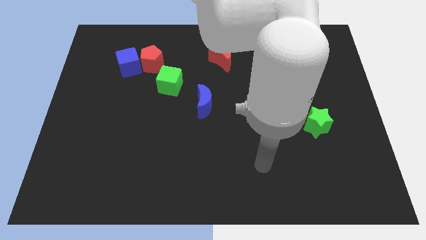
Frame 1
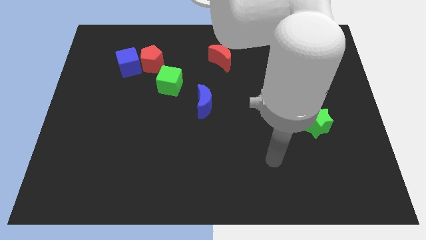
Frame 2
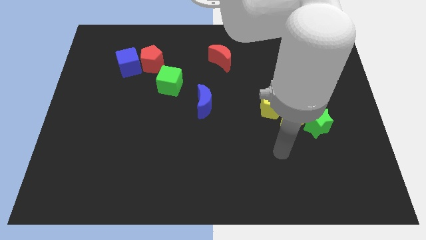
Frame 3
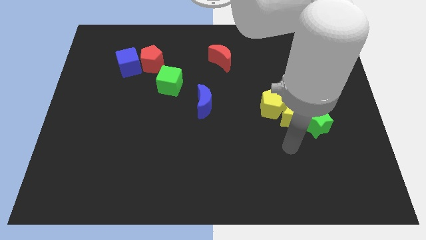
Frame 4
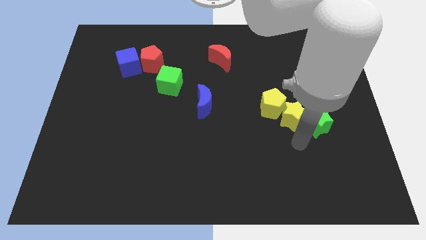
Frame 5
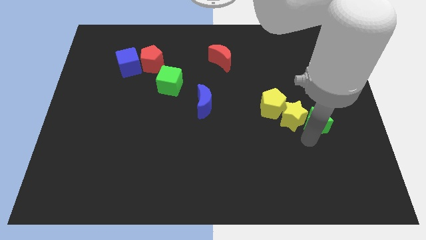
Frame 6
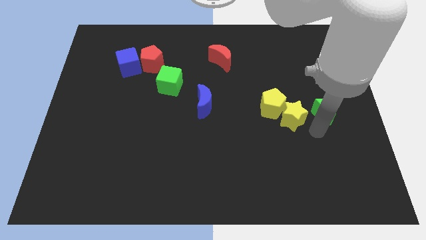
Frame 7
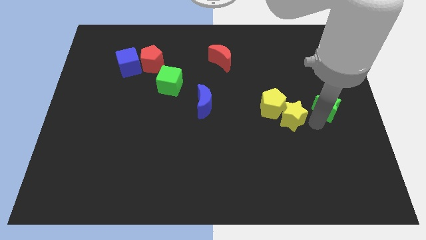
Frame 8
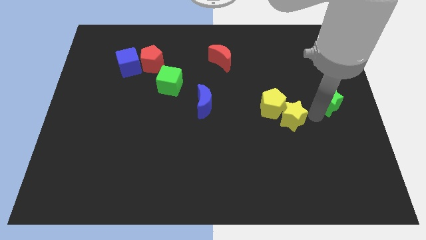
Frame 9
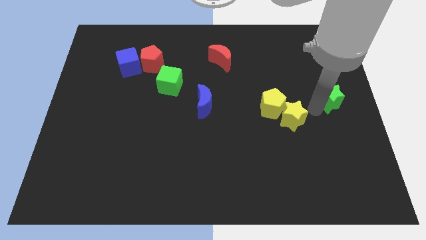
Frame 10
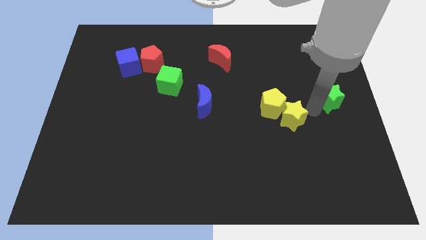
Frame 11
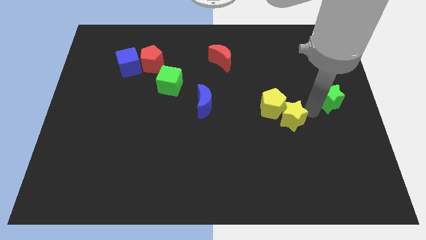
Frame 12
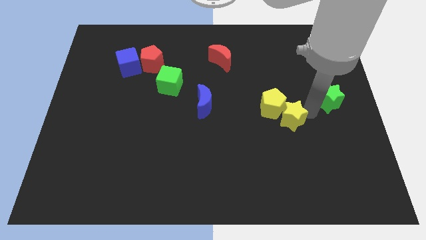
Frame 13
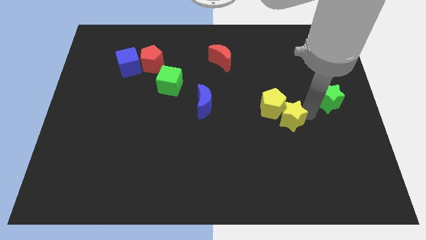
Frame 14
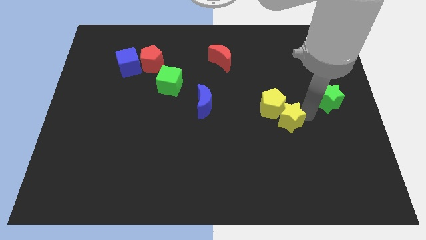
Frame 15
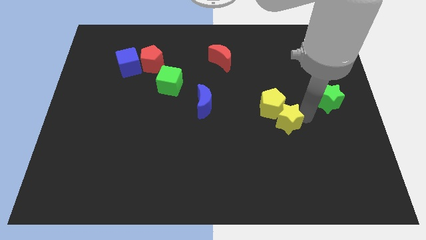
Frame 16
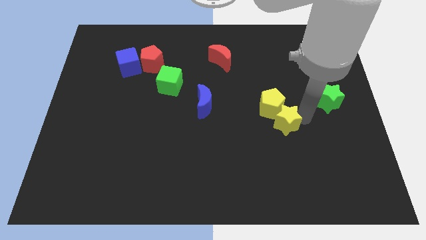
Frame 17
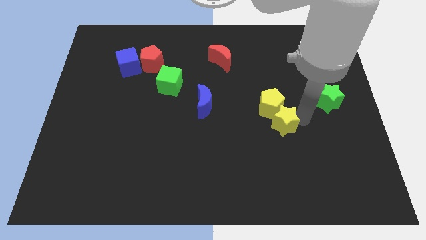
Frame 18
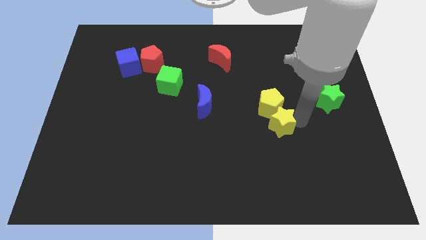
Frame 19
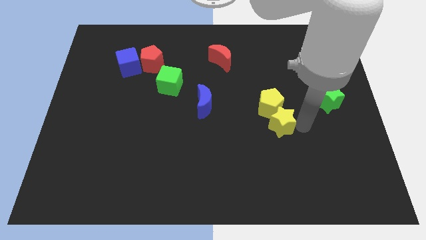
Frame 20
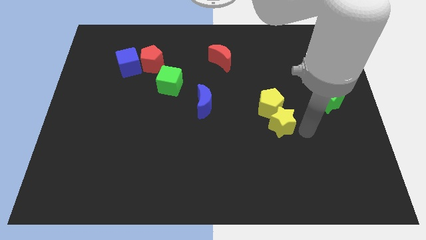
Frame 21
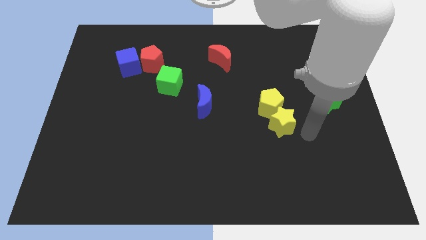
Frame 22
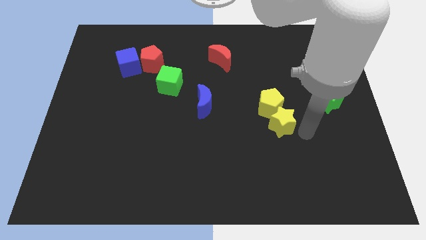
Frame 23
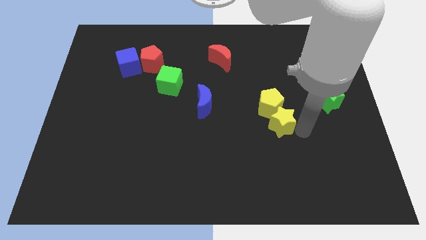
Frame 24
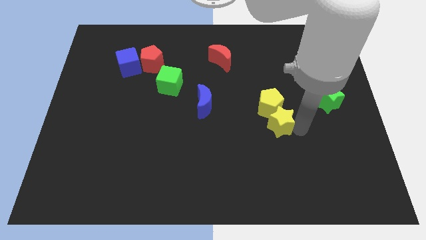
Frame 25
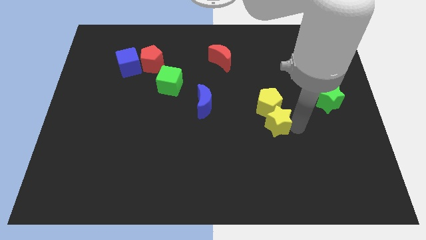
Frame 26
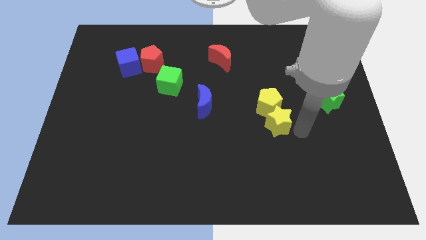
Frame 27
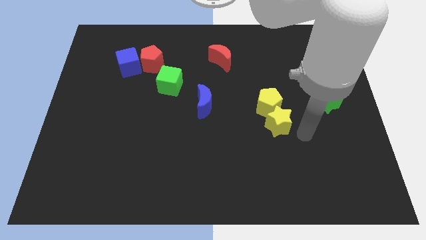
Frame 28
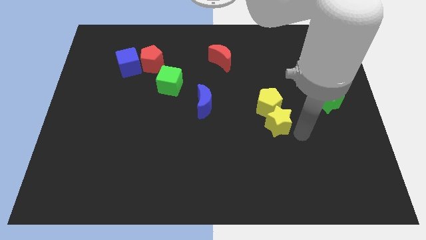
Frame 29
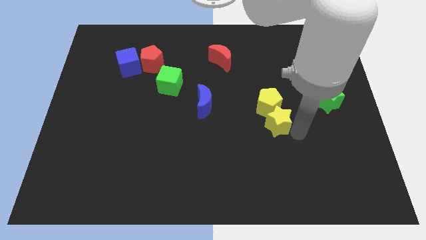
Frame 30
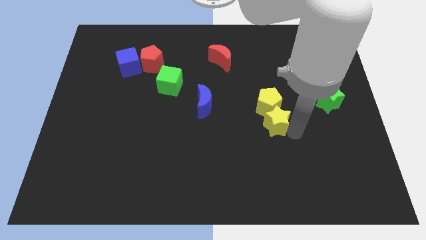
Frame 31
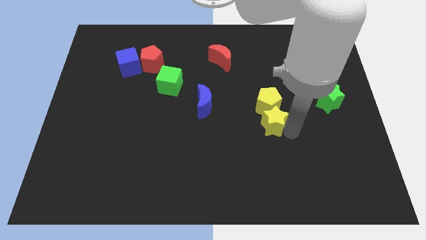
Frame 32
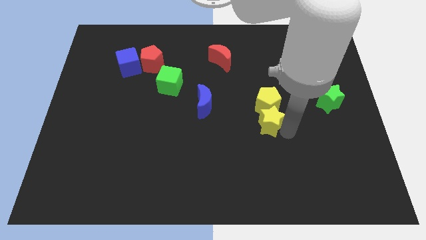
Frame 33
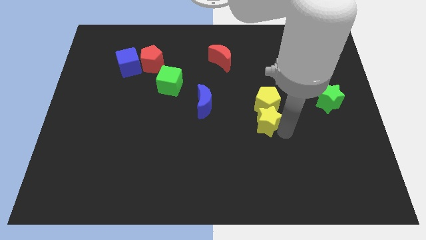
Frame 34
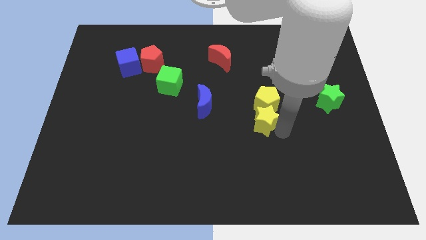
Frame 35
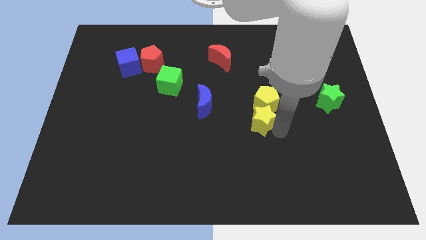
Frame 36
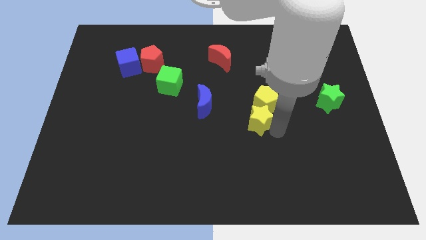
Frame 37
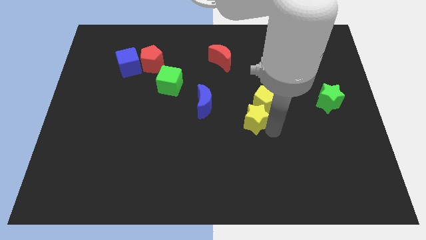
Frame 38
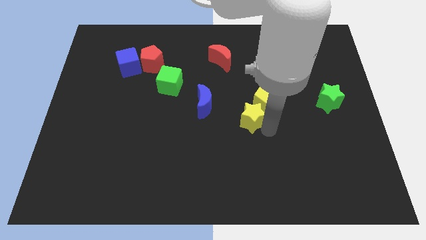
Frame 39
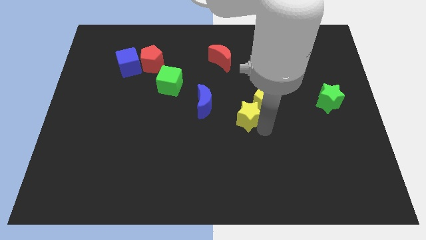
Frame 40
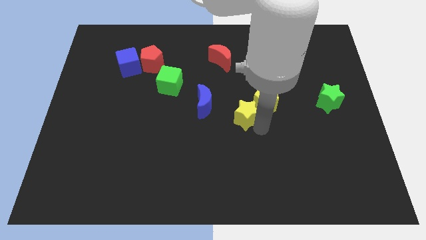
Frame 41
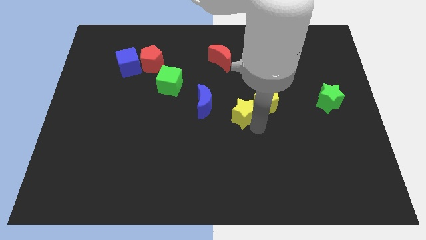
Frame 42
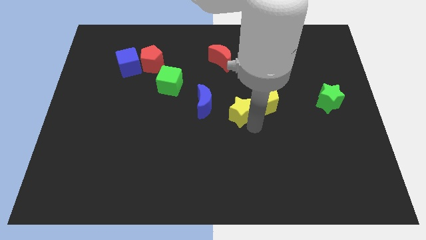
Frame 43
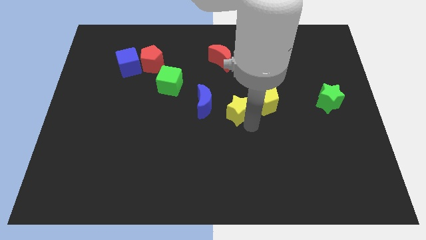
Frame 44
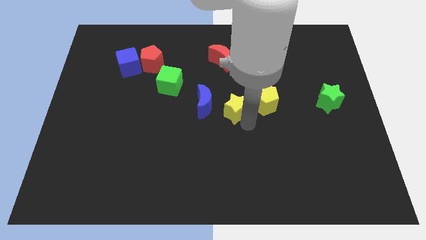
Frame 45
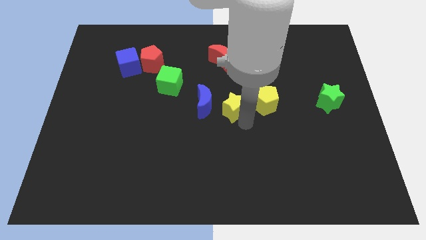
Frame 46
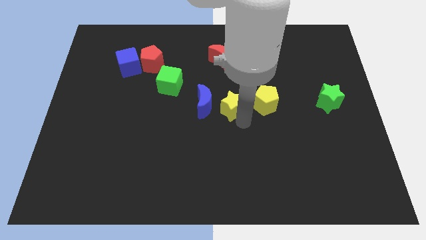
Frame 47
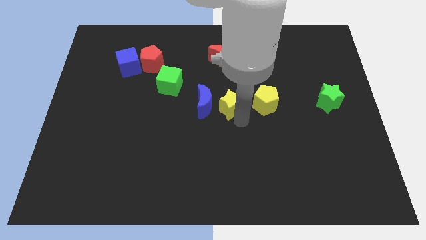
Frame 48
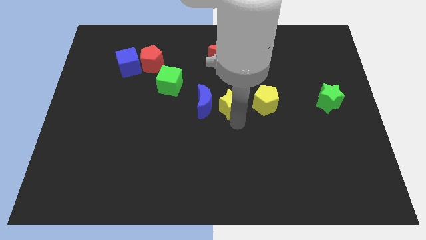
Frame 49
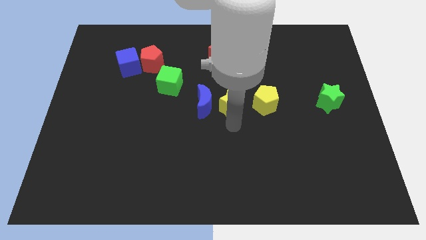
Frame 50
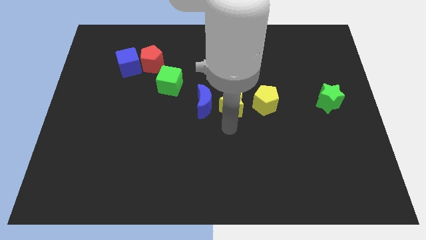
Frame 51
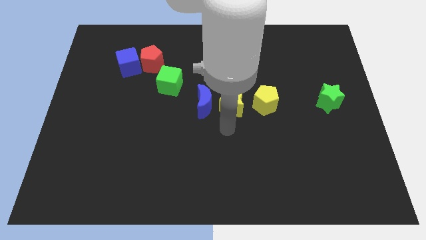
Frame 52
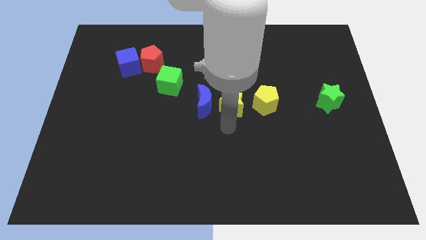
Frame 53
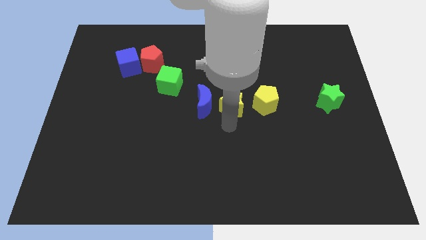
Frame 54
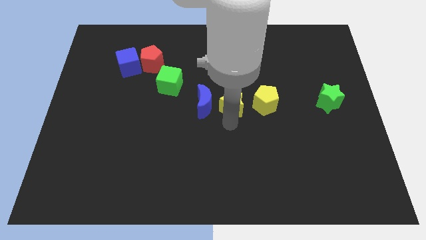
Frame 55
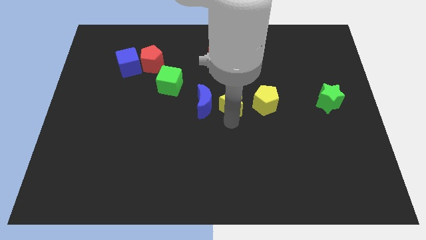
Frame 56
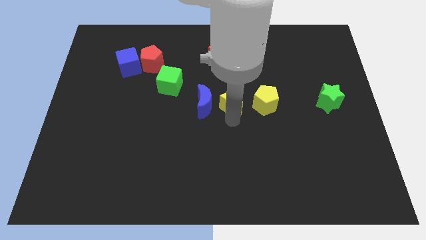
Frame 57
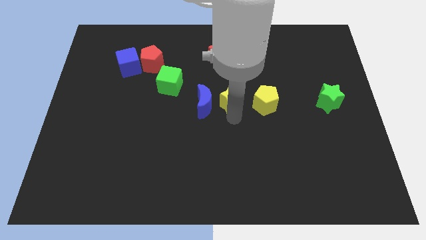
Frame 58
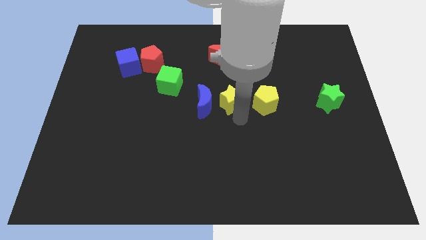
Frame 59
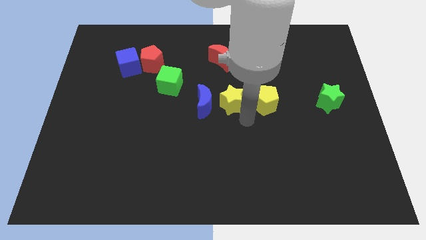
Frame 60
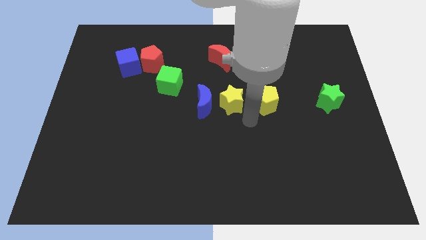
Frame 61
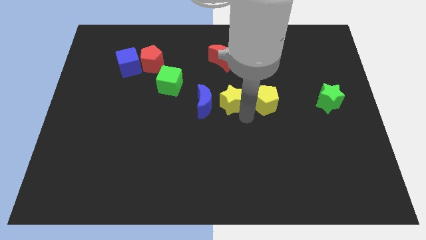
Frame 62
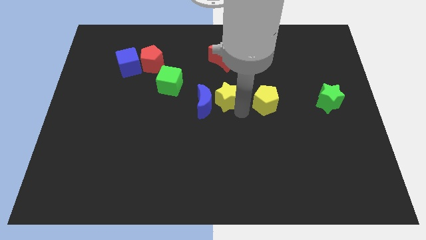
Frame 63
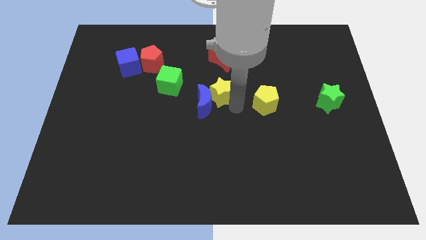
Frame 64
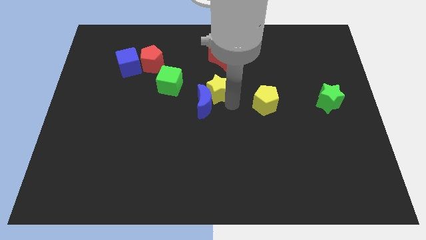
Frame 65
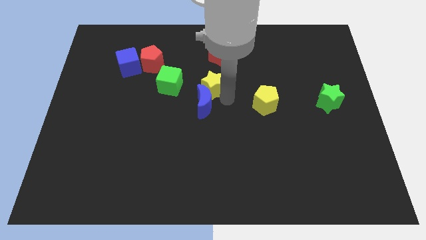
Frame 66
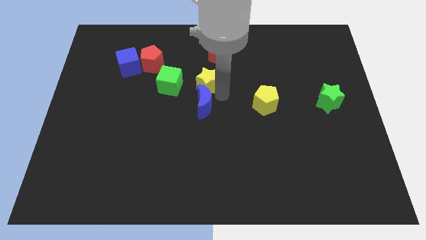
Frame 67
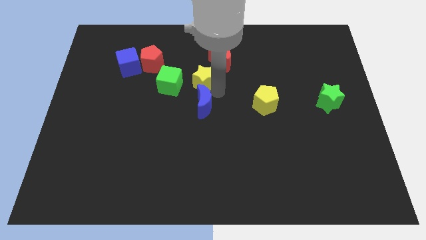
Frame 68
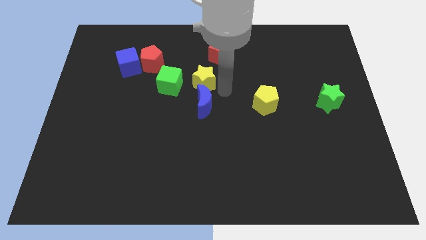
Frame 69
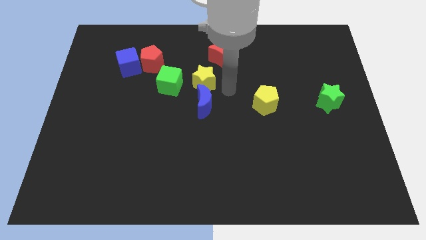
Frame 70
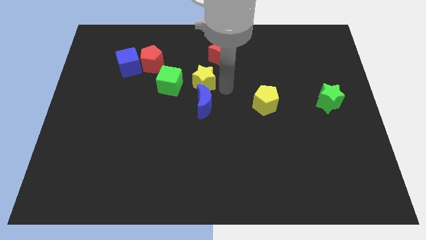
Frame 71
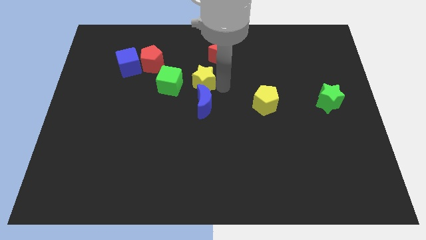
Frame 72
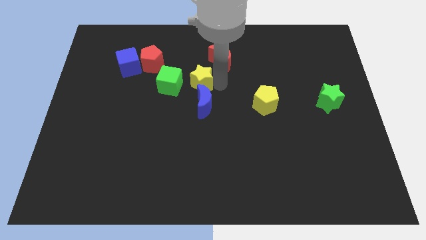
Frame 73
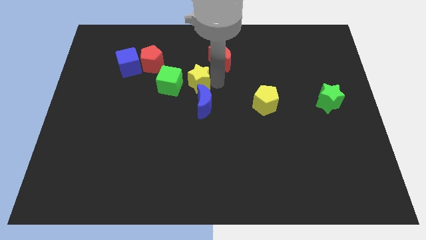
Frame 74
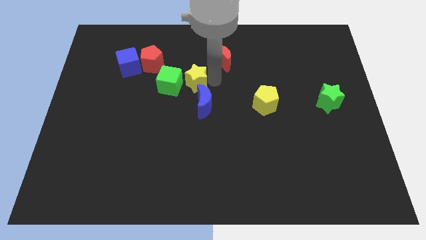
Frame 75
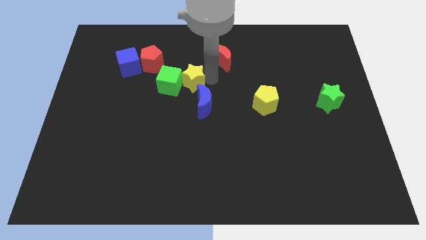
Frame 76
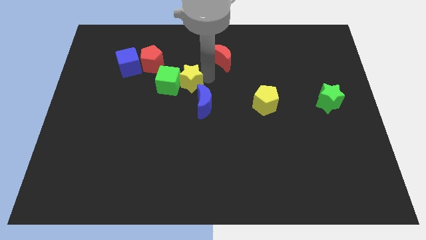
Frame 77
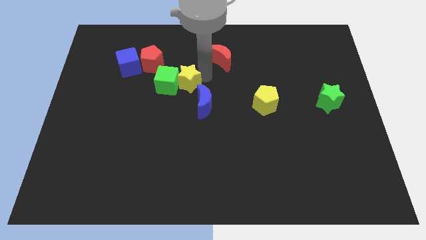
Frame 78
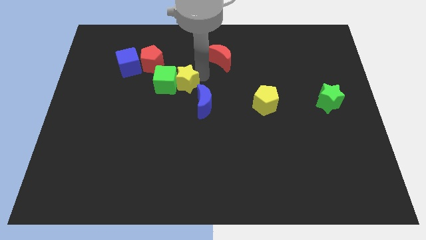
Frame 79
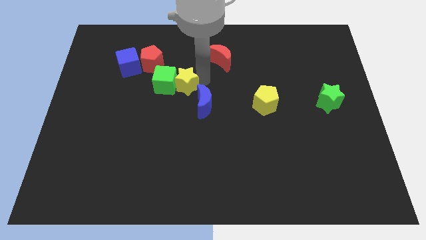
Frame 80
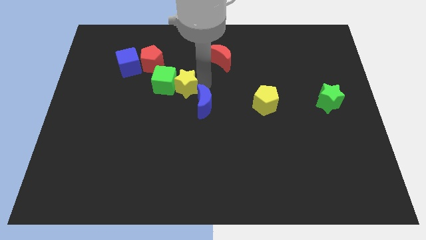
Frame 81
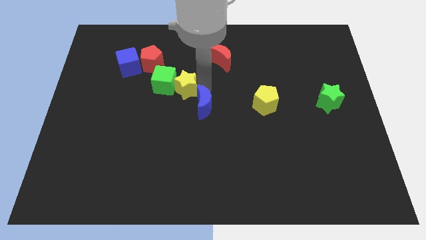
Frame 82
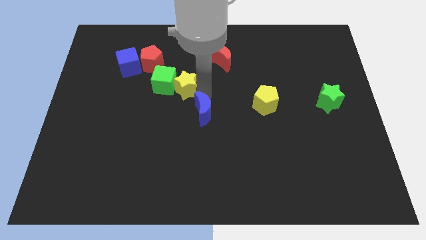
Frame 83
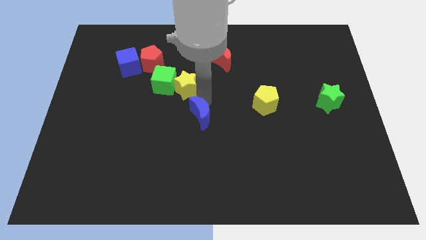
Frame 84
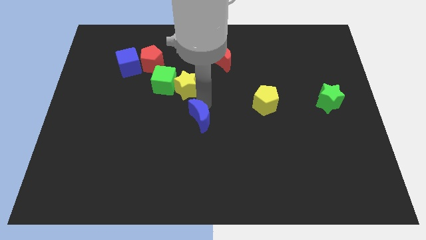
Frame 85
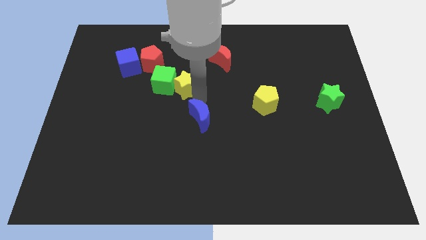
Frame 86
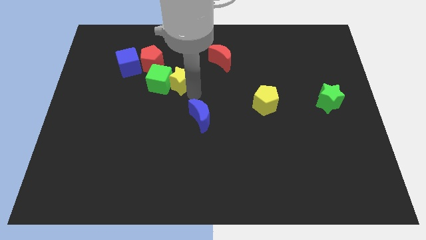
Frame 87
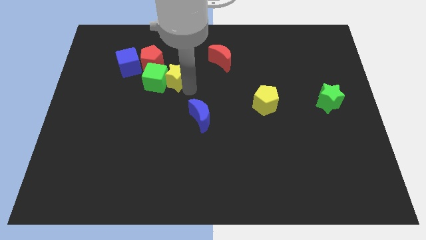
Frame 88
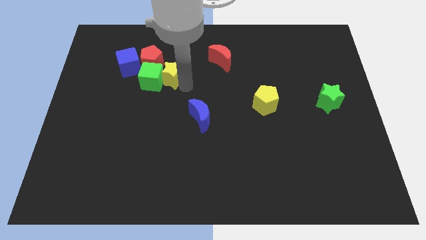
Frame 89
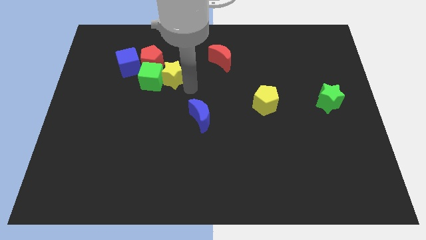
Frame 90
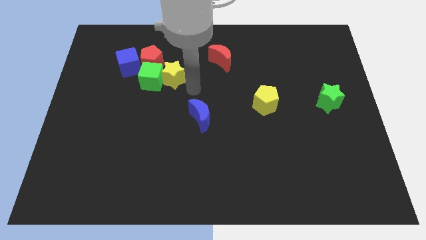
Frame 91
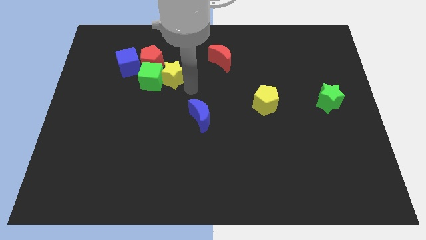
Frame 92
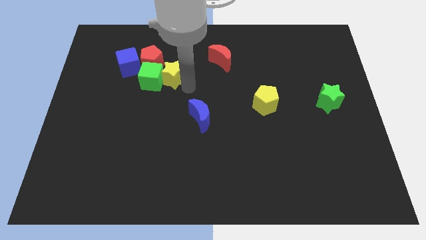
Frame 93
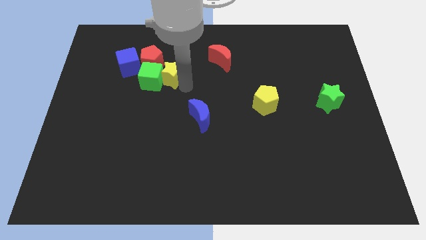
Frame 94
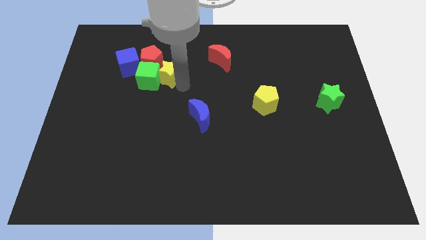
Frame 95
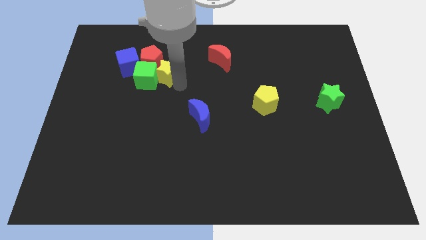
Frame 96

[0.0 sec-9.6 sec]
move the yellow star towards the red pentagon
